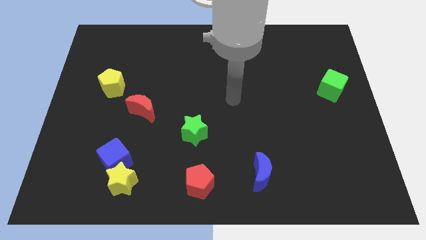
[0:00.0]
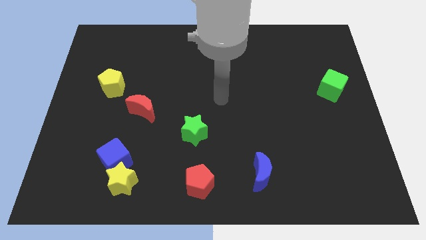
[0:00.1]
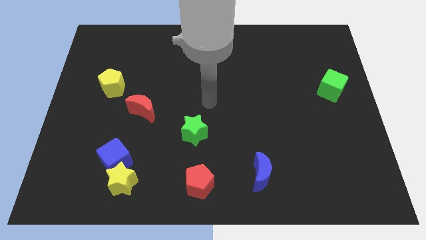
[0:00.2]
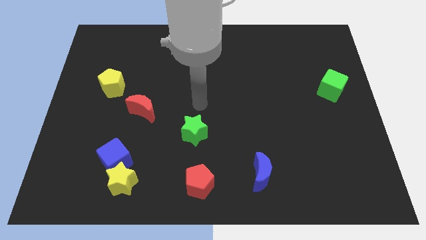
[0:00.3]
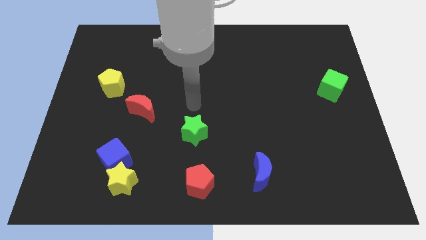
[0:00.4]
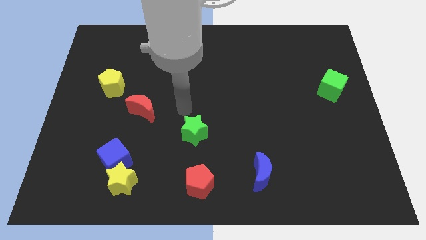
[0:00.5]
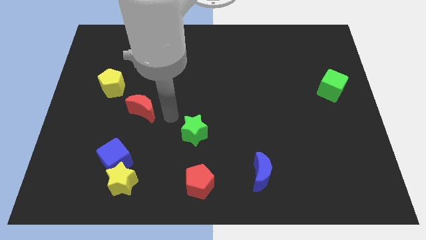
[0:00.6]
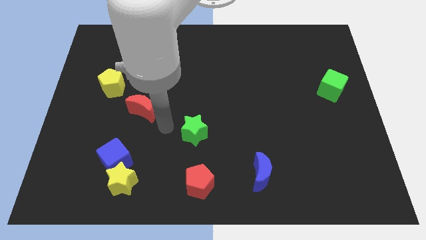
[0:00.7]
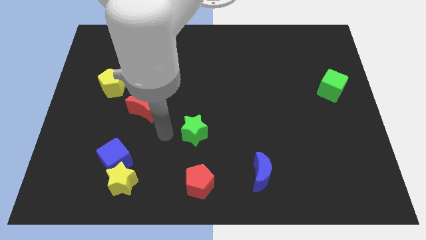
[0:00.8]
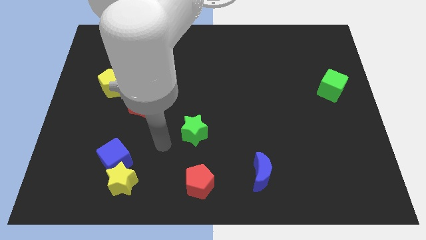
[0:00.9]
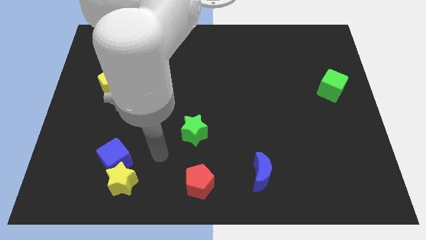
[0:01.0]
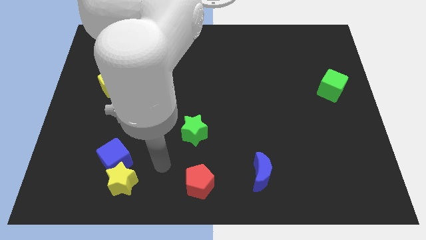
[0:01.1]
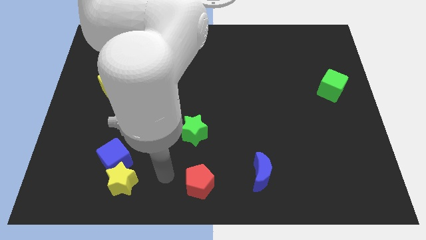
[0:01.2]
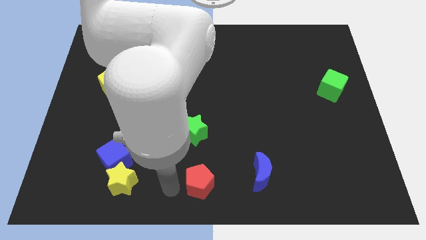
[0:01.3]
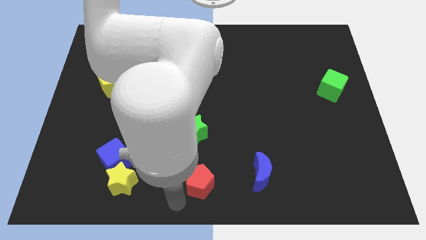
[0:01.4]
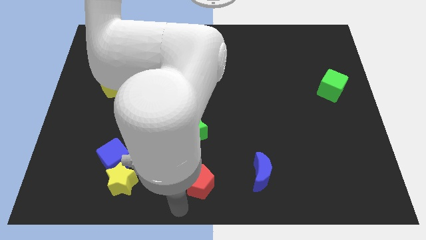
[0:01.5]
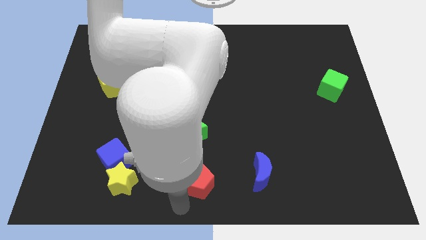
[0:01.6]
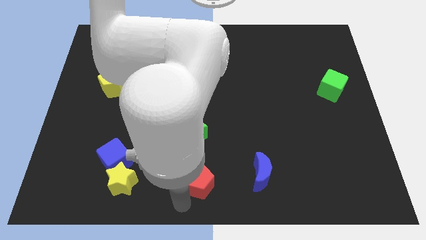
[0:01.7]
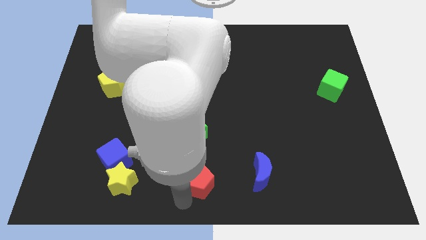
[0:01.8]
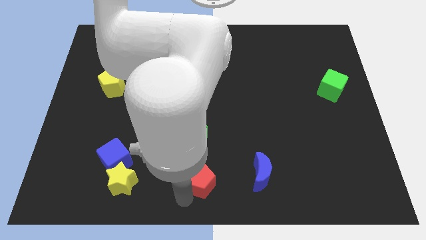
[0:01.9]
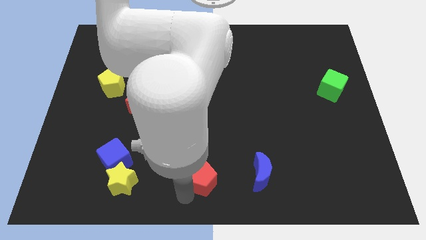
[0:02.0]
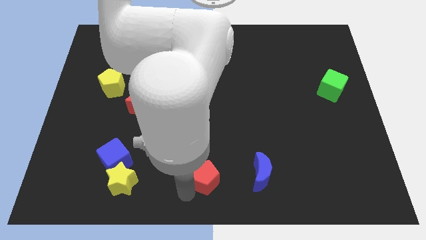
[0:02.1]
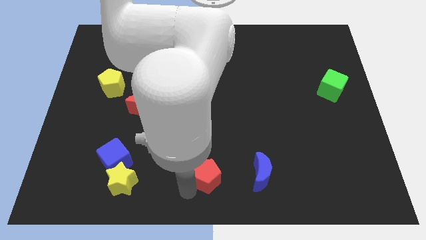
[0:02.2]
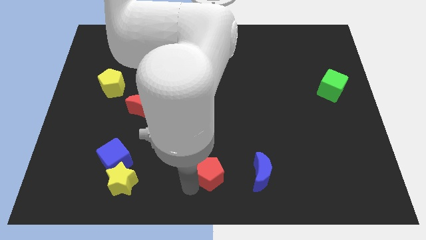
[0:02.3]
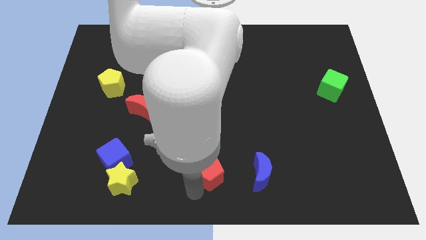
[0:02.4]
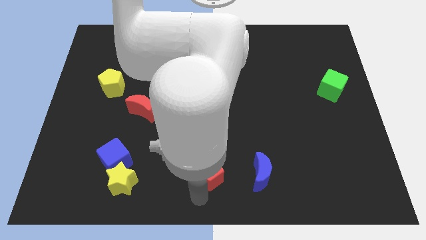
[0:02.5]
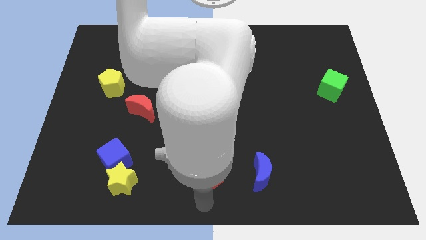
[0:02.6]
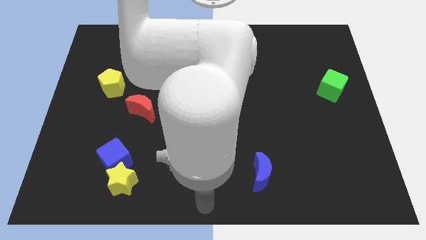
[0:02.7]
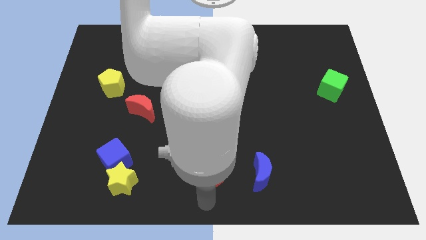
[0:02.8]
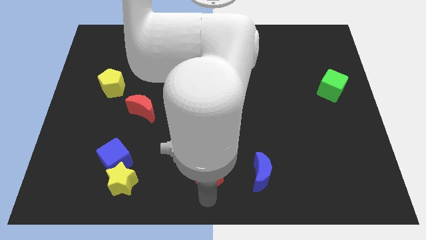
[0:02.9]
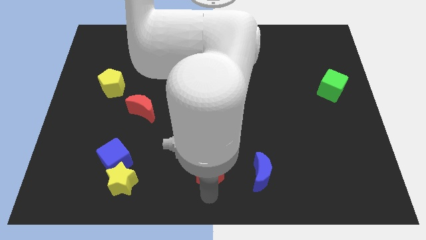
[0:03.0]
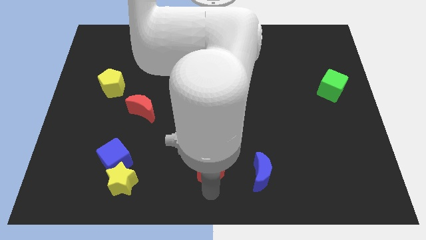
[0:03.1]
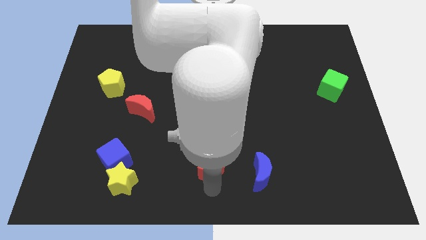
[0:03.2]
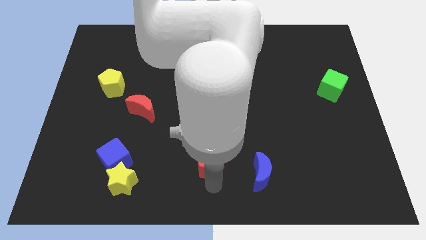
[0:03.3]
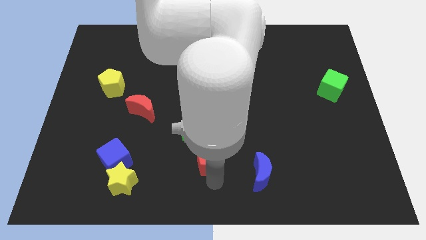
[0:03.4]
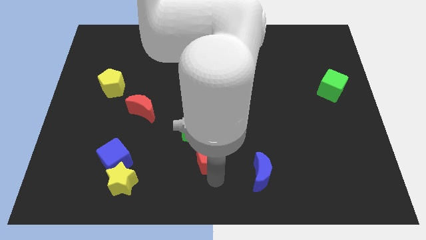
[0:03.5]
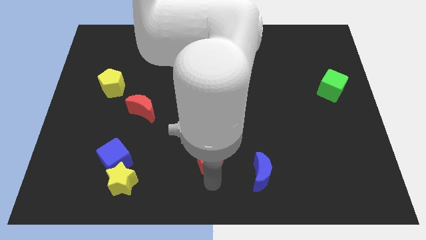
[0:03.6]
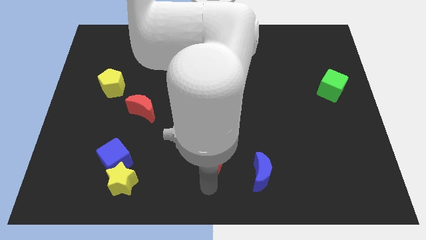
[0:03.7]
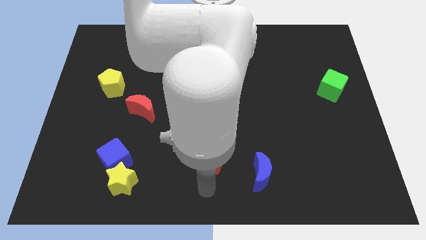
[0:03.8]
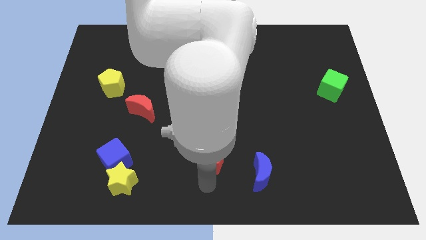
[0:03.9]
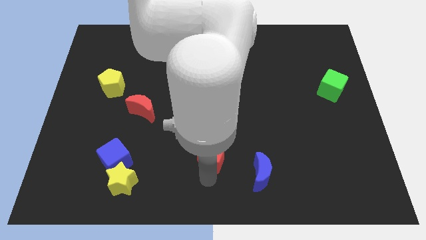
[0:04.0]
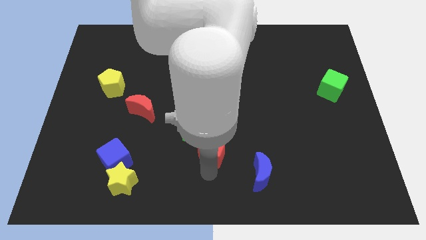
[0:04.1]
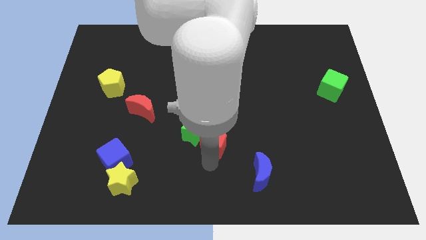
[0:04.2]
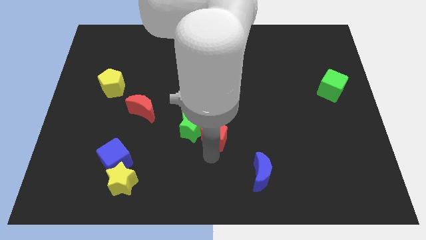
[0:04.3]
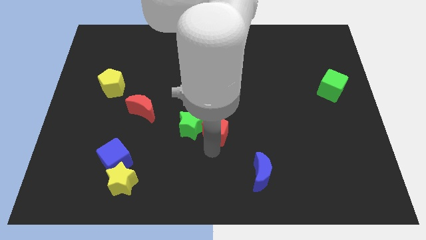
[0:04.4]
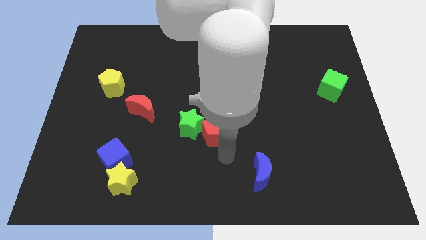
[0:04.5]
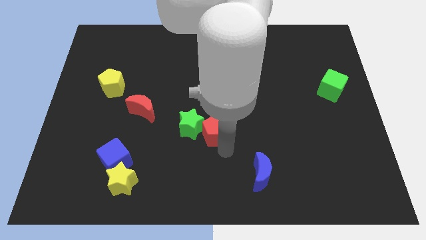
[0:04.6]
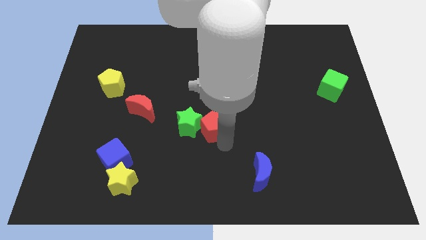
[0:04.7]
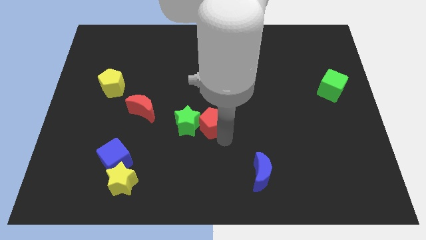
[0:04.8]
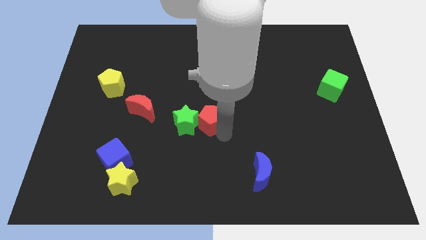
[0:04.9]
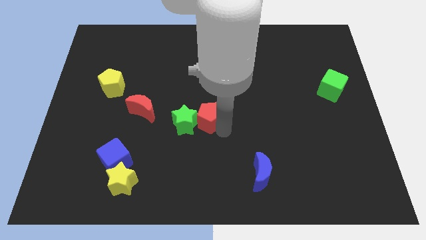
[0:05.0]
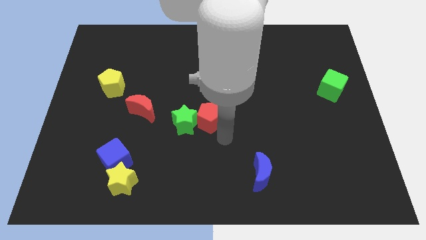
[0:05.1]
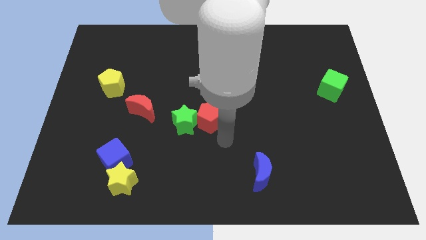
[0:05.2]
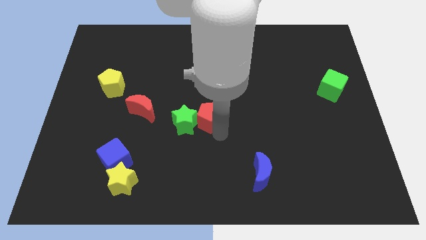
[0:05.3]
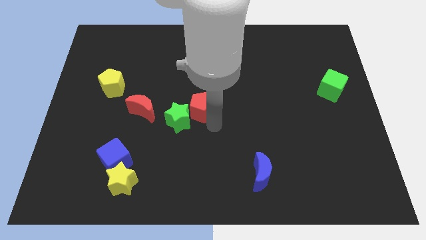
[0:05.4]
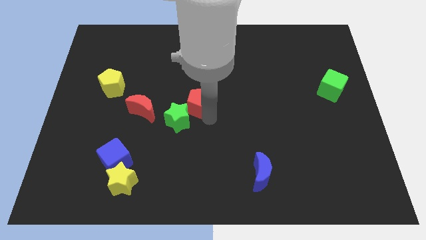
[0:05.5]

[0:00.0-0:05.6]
move the red pentagon to the top side of the green star

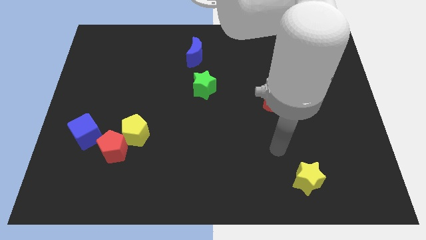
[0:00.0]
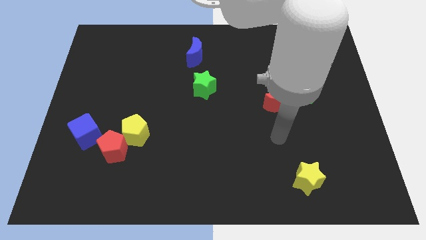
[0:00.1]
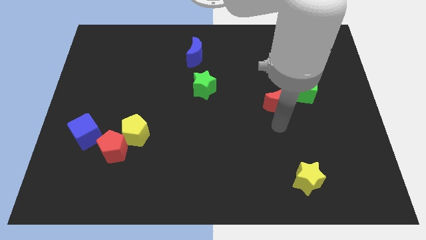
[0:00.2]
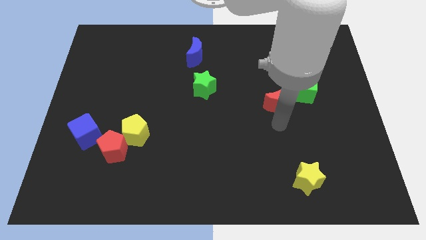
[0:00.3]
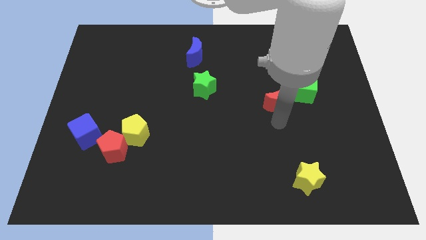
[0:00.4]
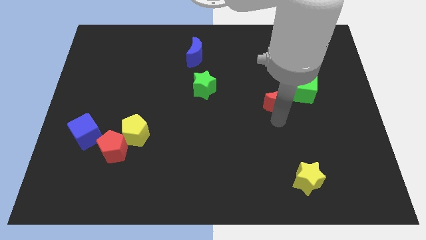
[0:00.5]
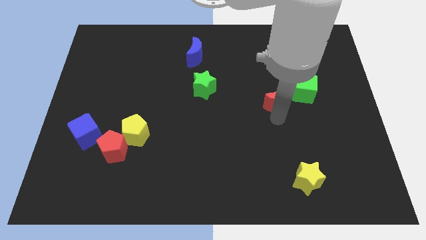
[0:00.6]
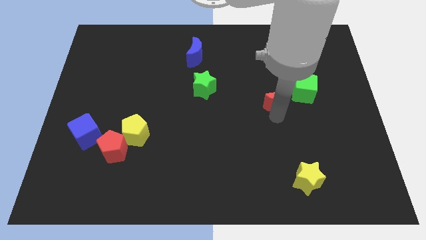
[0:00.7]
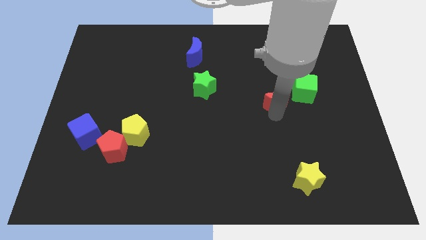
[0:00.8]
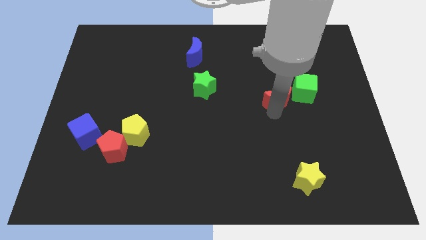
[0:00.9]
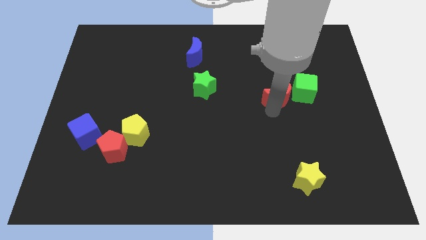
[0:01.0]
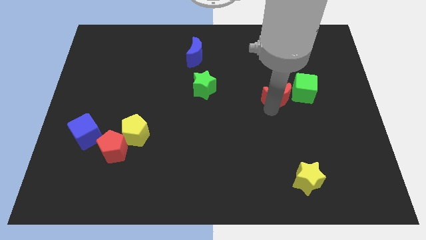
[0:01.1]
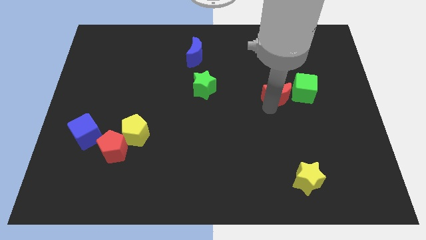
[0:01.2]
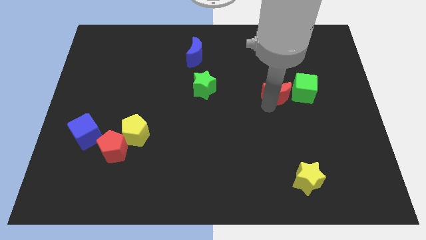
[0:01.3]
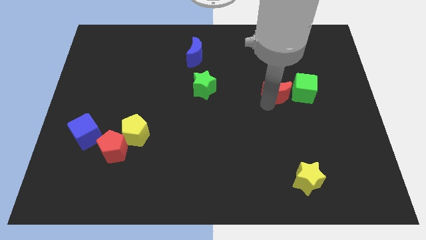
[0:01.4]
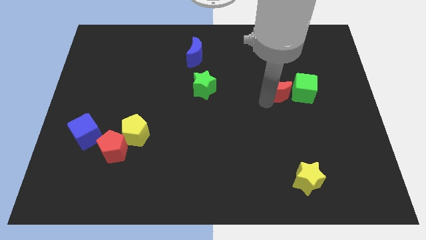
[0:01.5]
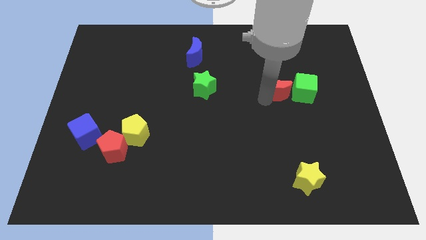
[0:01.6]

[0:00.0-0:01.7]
move the red moon to the top left side of the green cube

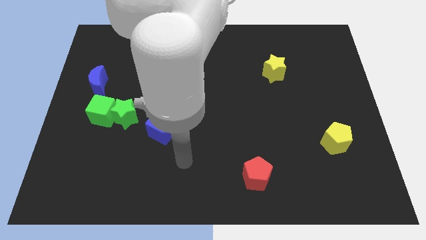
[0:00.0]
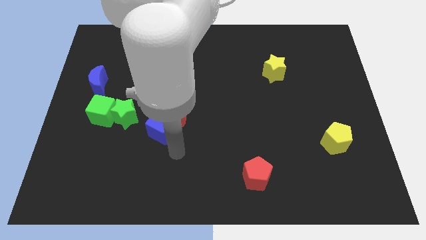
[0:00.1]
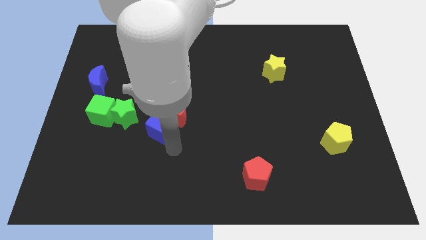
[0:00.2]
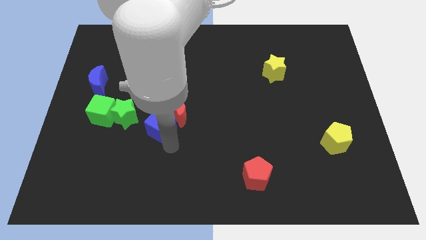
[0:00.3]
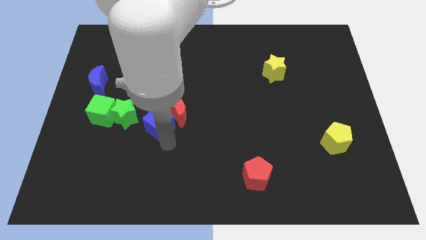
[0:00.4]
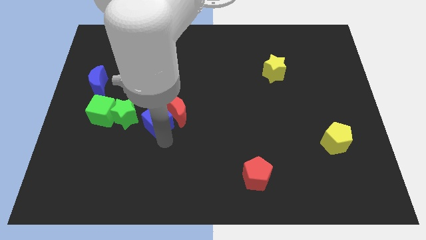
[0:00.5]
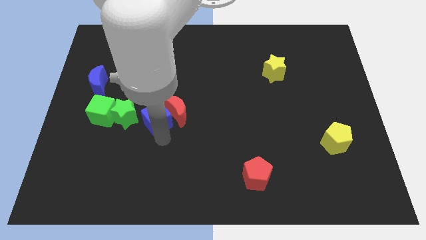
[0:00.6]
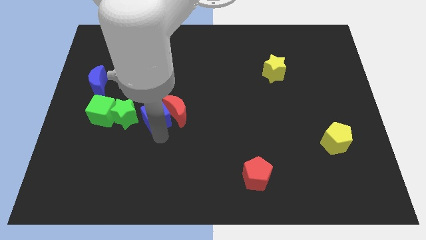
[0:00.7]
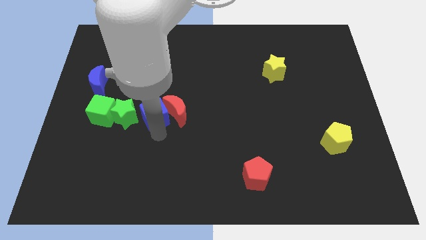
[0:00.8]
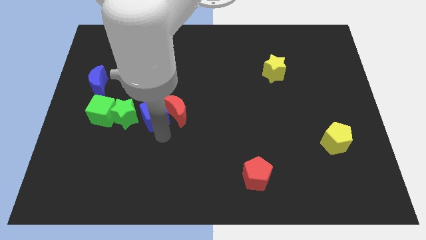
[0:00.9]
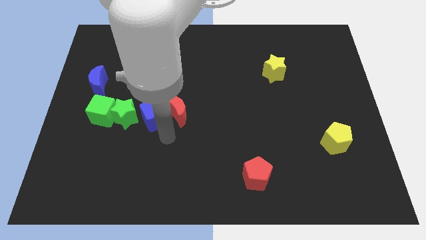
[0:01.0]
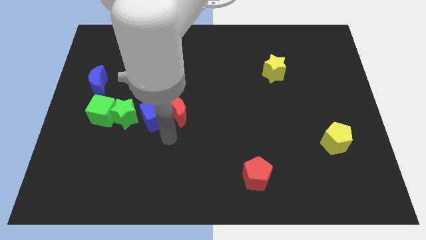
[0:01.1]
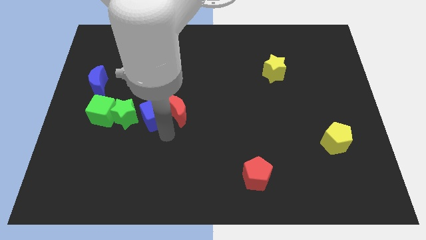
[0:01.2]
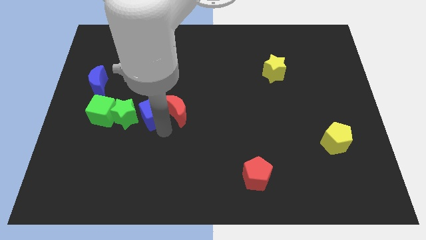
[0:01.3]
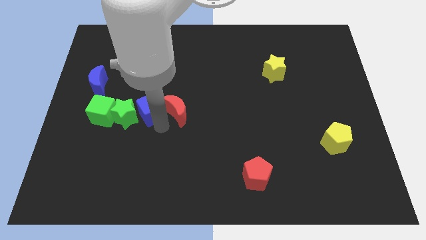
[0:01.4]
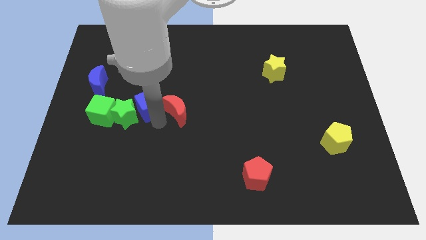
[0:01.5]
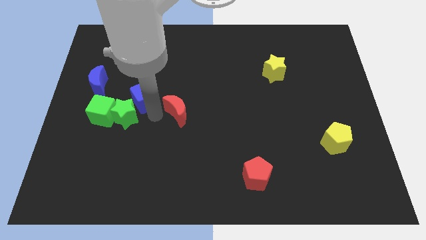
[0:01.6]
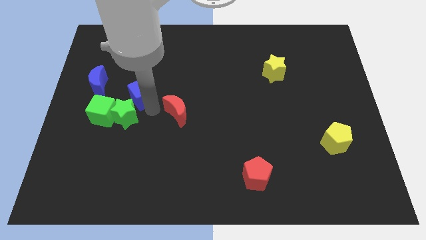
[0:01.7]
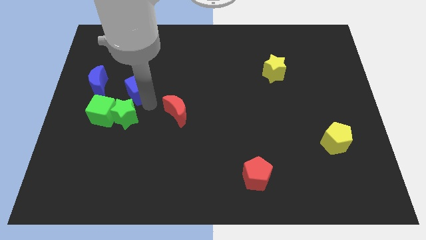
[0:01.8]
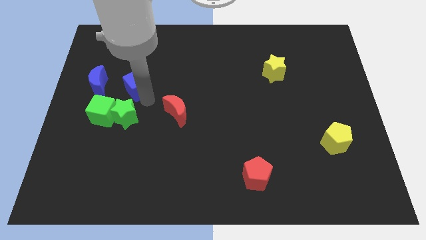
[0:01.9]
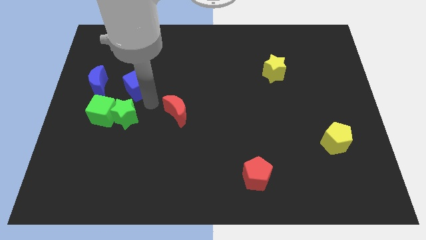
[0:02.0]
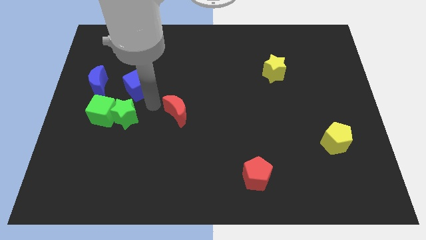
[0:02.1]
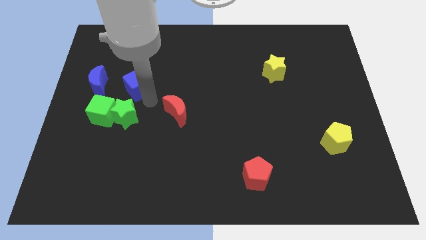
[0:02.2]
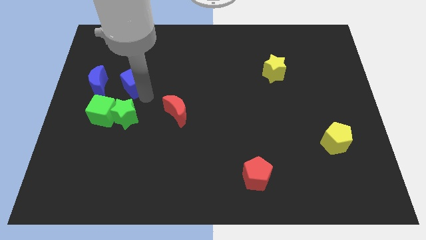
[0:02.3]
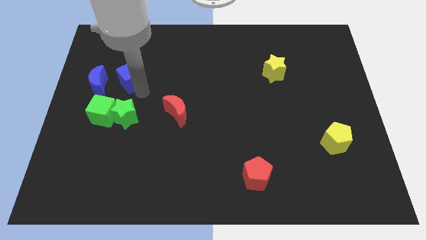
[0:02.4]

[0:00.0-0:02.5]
slide the blue cube to the top right of the blue moon
